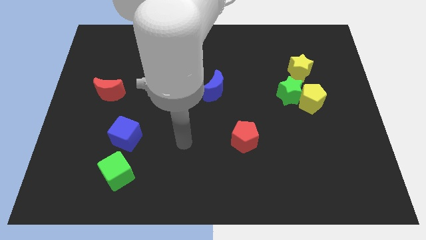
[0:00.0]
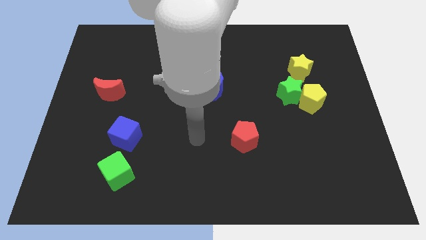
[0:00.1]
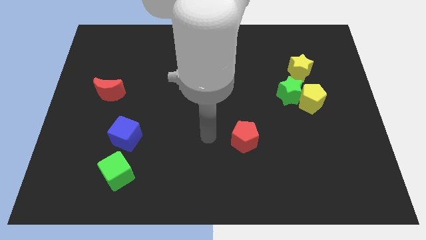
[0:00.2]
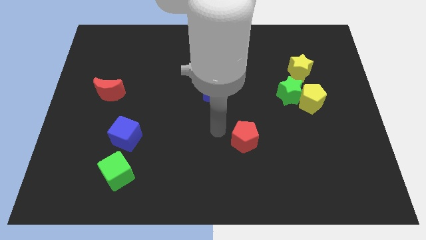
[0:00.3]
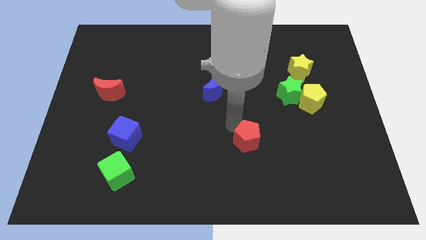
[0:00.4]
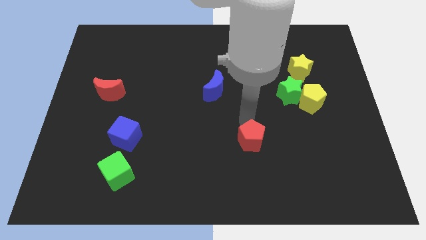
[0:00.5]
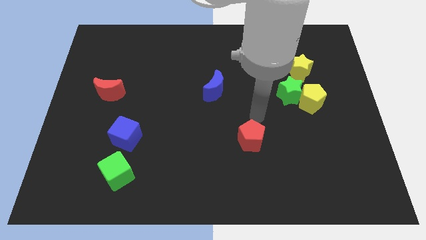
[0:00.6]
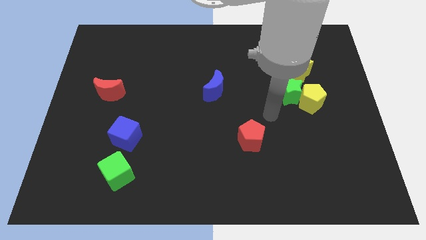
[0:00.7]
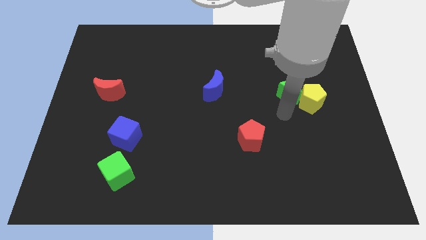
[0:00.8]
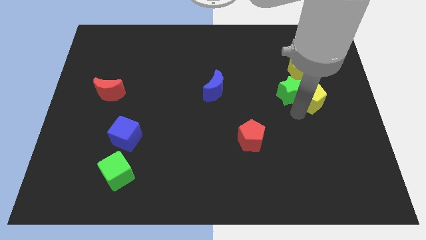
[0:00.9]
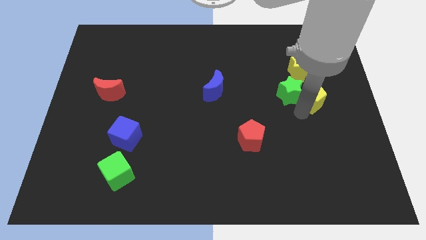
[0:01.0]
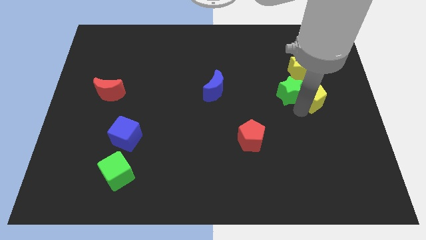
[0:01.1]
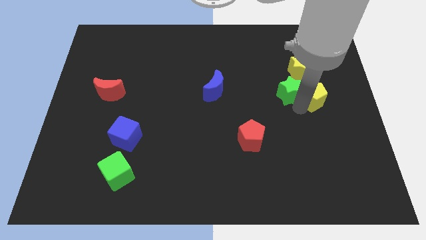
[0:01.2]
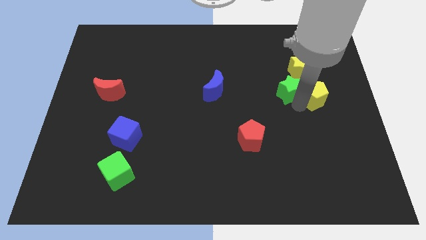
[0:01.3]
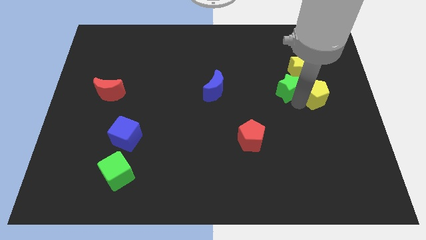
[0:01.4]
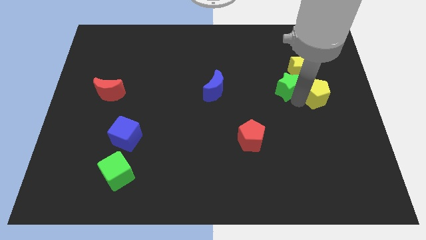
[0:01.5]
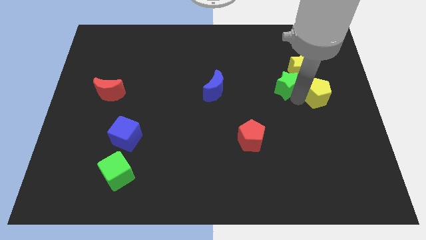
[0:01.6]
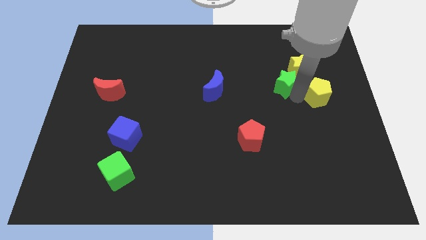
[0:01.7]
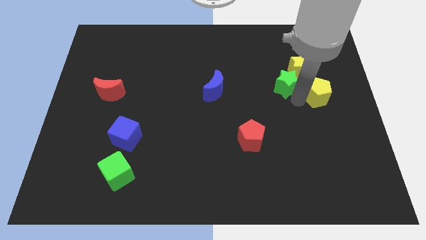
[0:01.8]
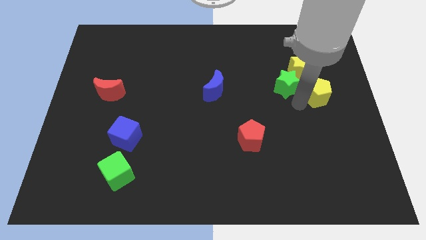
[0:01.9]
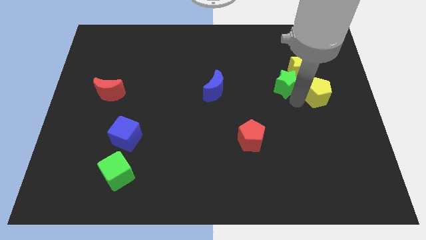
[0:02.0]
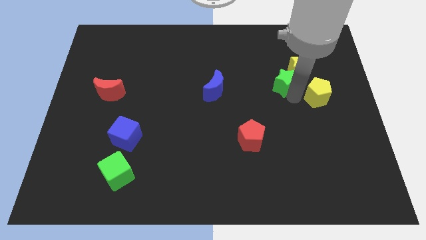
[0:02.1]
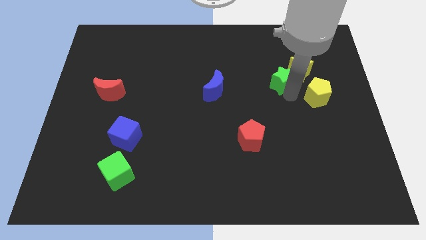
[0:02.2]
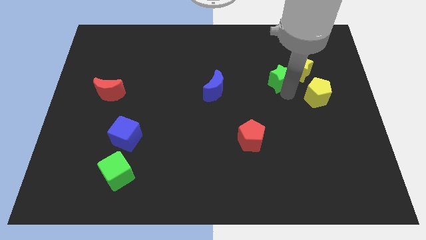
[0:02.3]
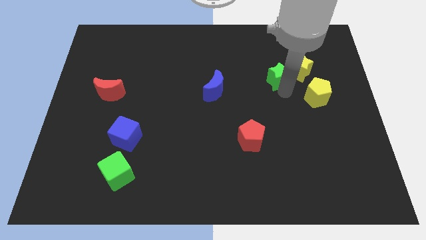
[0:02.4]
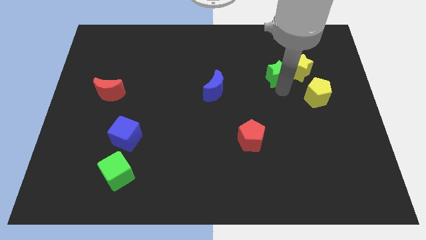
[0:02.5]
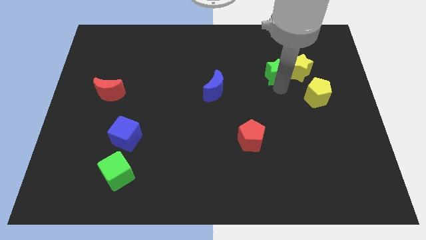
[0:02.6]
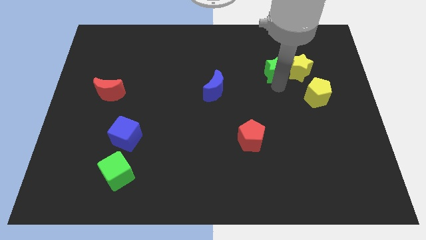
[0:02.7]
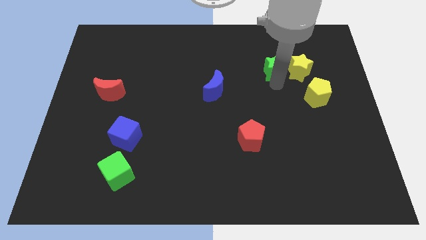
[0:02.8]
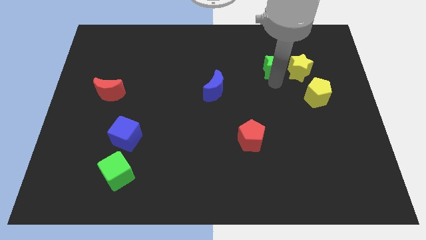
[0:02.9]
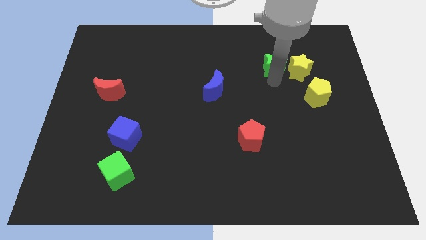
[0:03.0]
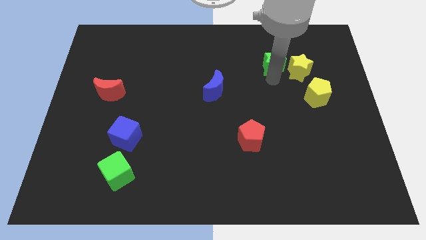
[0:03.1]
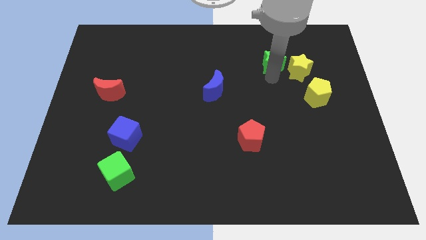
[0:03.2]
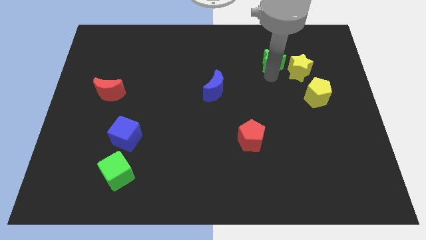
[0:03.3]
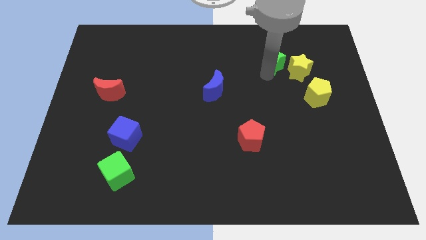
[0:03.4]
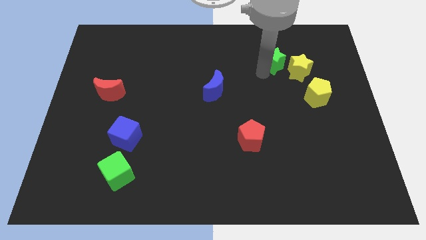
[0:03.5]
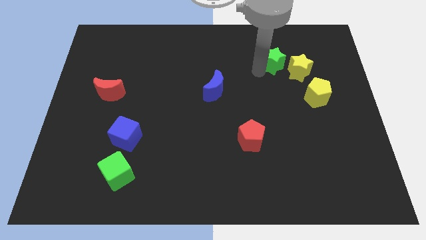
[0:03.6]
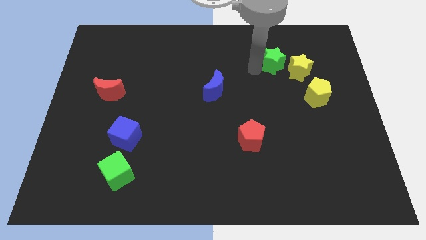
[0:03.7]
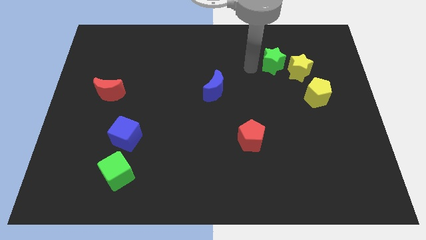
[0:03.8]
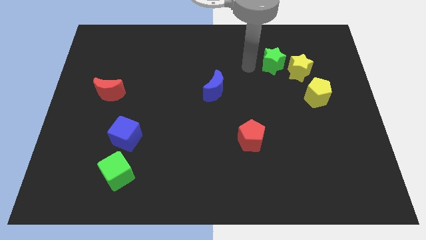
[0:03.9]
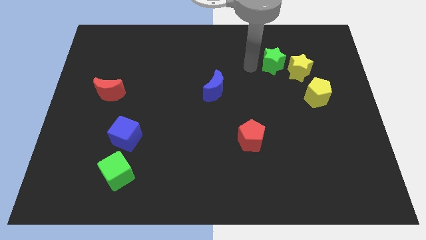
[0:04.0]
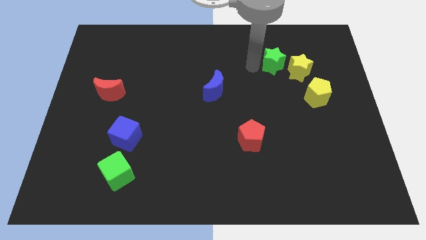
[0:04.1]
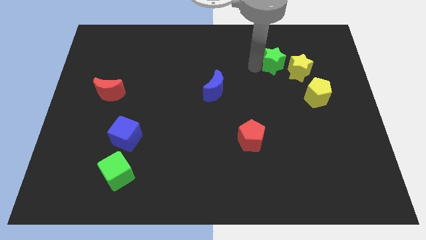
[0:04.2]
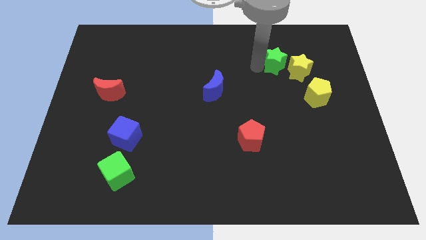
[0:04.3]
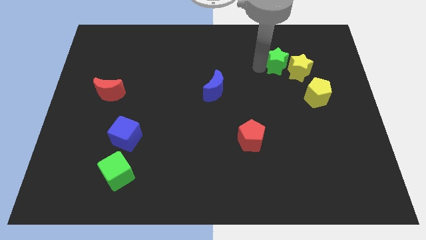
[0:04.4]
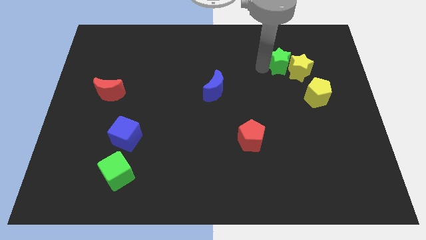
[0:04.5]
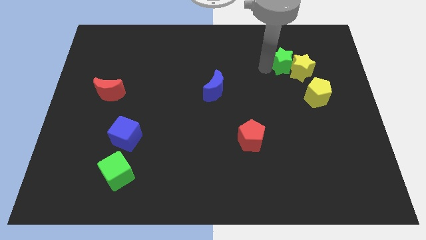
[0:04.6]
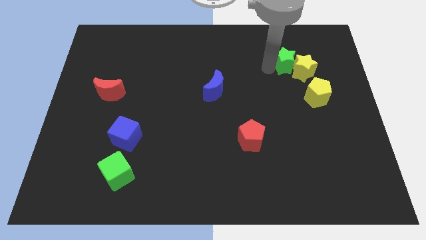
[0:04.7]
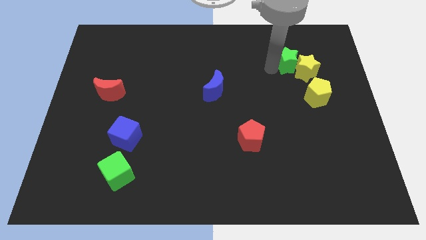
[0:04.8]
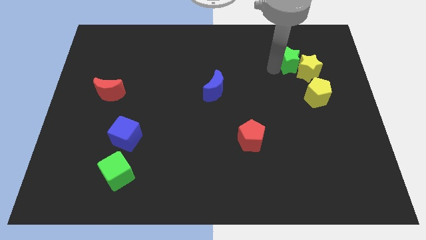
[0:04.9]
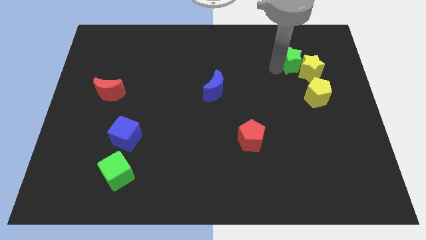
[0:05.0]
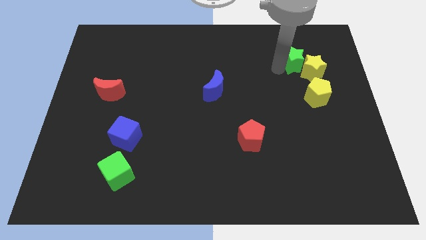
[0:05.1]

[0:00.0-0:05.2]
move the green star above the yellow pentagon

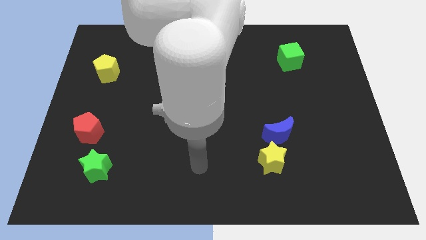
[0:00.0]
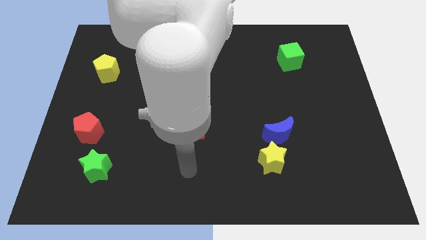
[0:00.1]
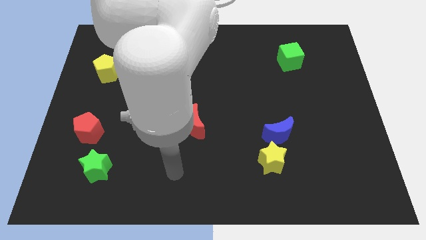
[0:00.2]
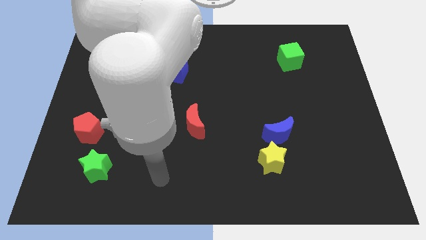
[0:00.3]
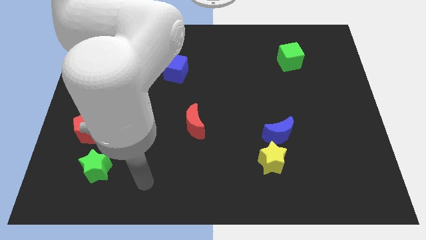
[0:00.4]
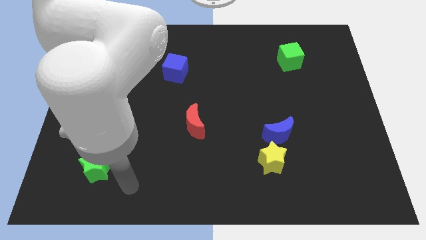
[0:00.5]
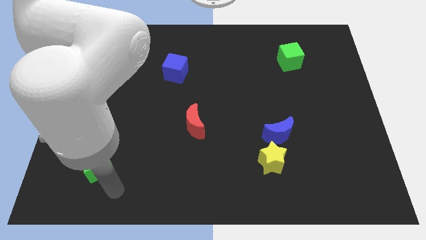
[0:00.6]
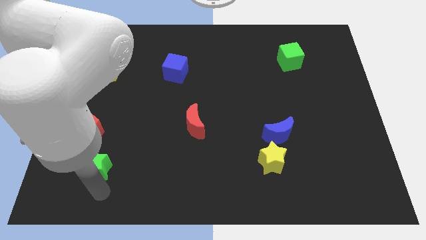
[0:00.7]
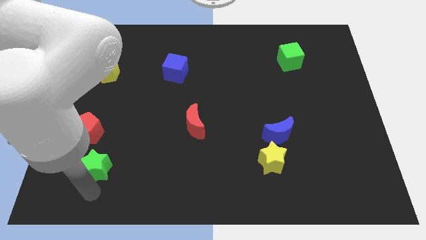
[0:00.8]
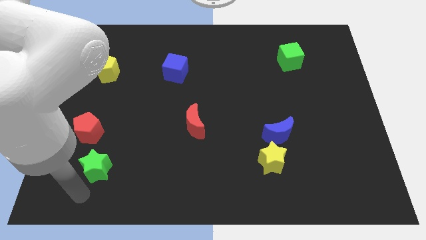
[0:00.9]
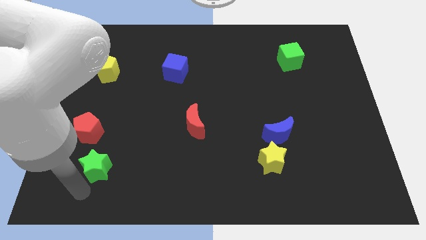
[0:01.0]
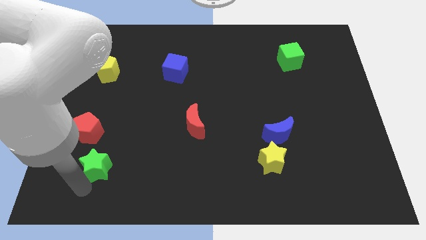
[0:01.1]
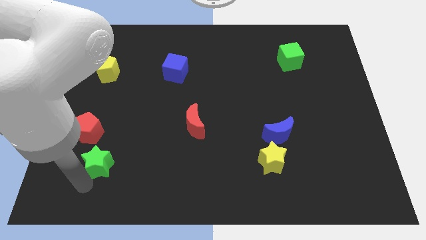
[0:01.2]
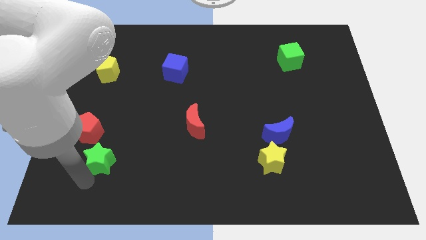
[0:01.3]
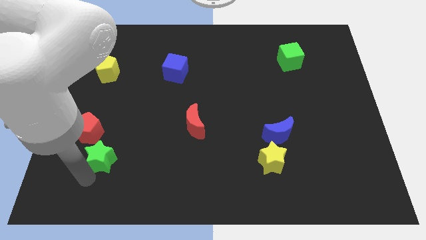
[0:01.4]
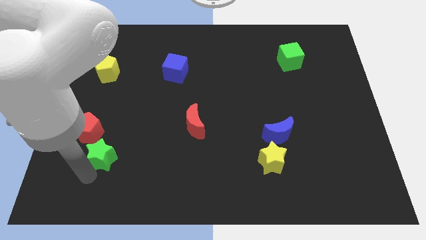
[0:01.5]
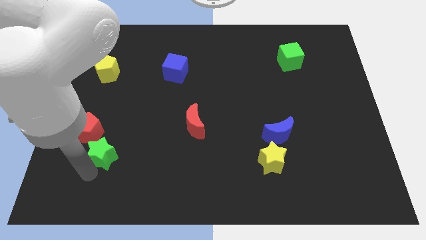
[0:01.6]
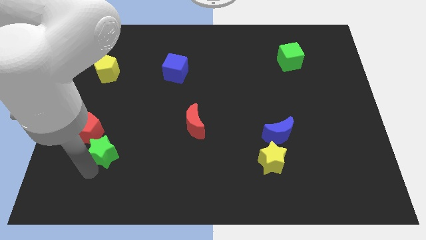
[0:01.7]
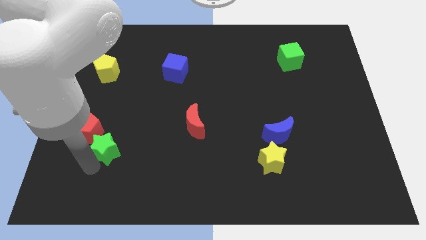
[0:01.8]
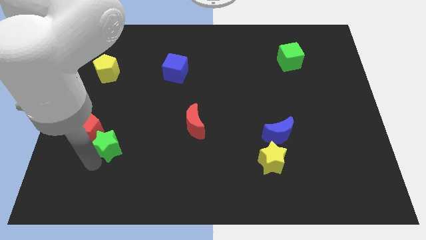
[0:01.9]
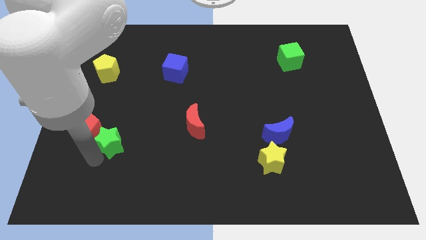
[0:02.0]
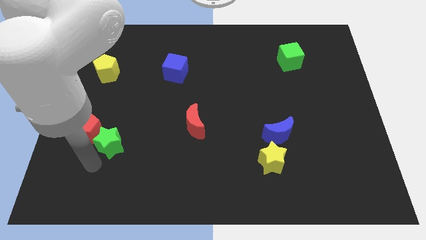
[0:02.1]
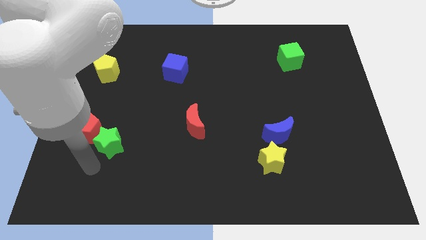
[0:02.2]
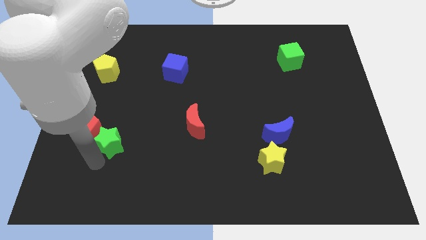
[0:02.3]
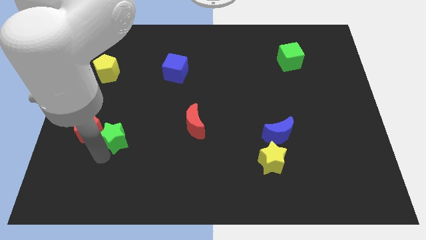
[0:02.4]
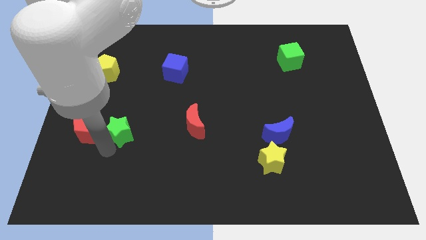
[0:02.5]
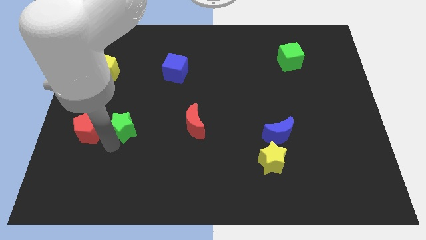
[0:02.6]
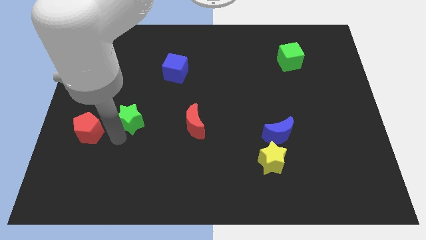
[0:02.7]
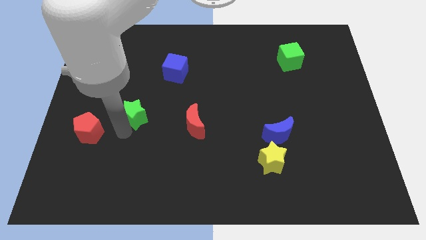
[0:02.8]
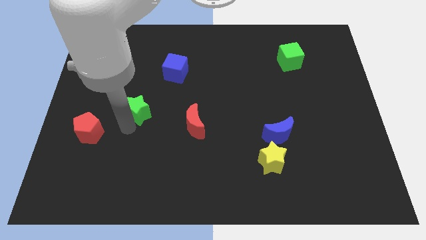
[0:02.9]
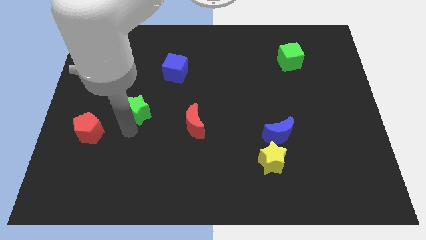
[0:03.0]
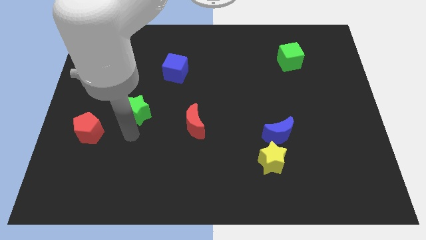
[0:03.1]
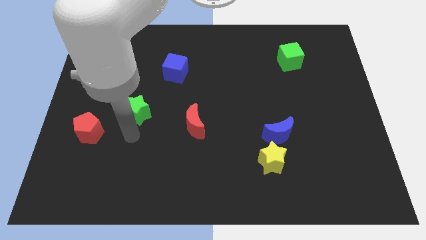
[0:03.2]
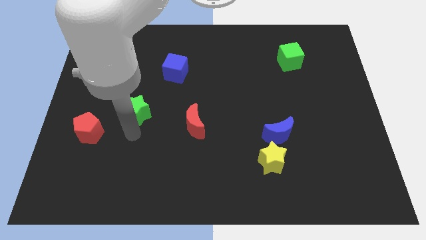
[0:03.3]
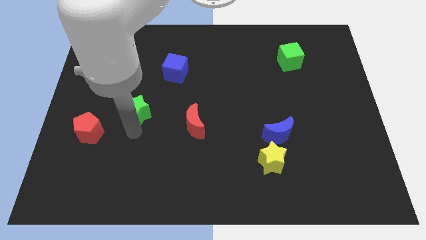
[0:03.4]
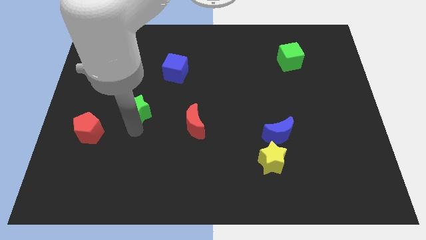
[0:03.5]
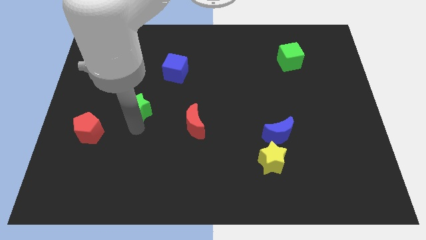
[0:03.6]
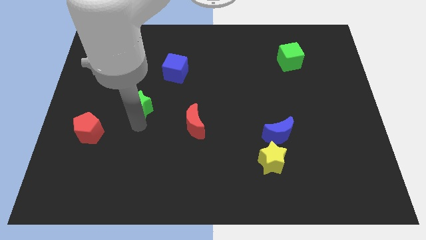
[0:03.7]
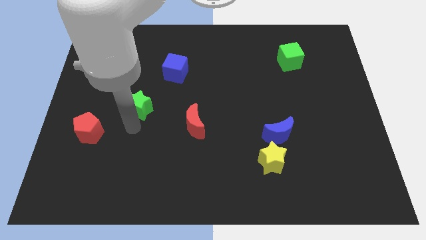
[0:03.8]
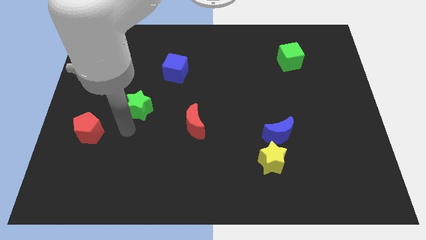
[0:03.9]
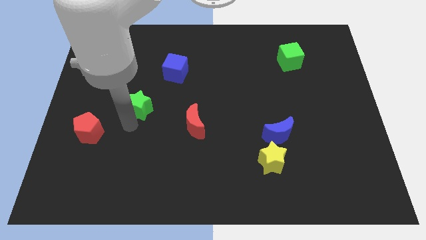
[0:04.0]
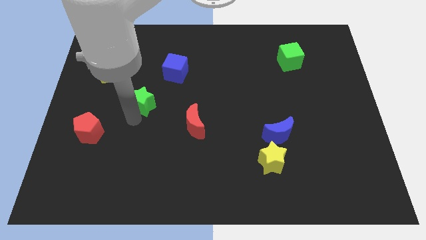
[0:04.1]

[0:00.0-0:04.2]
push the green star to the bottom left side of the blue cube
